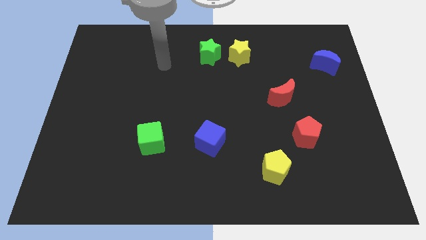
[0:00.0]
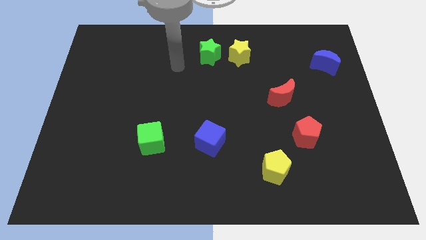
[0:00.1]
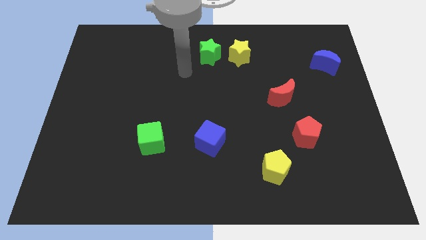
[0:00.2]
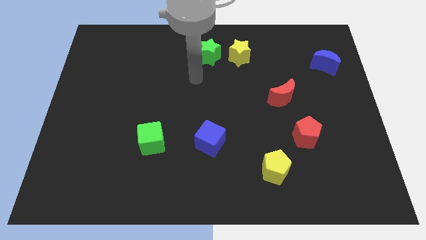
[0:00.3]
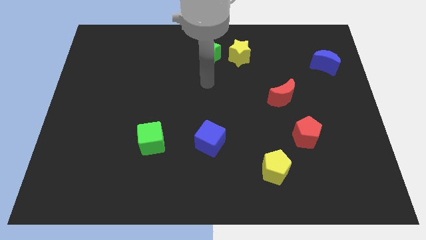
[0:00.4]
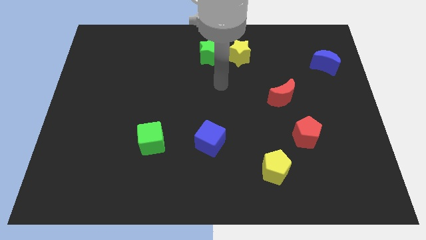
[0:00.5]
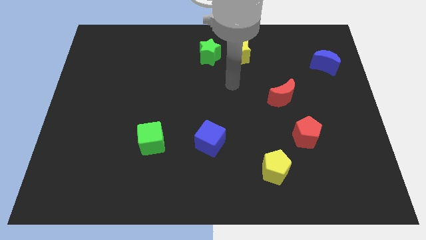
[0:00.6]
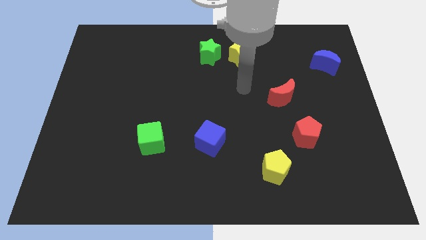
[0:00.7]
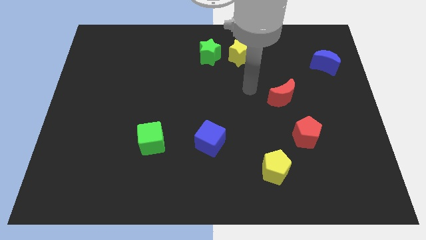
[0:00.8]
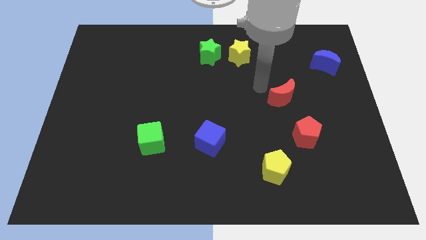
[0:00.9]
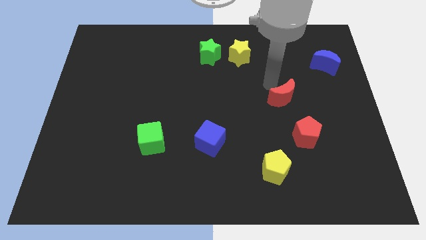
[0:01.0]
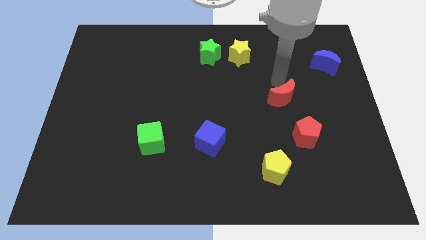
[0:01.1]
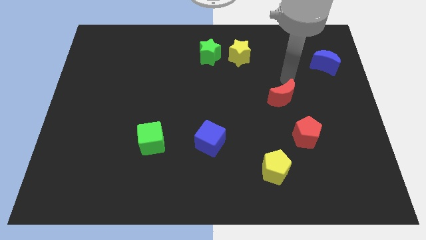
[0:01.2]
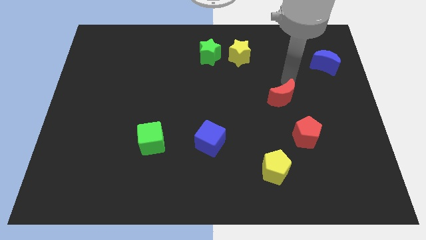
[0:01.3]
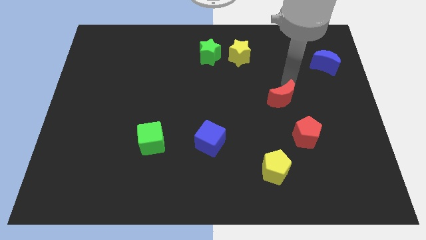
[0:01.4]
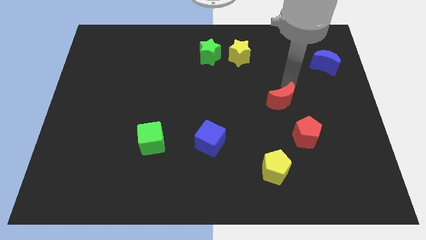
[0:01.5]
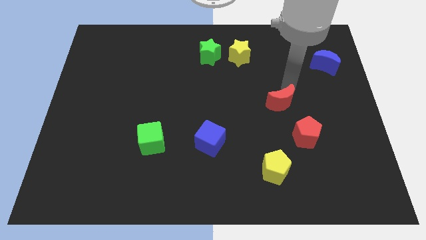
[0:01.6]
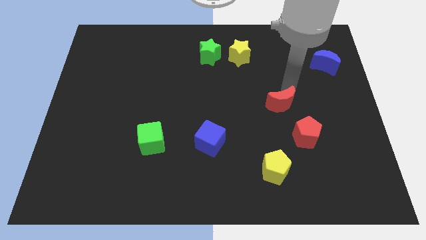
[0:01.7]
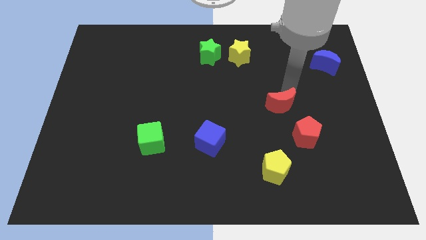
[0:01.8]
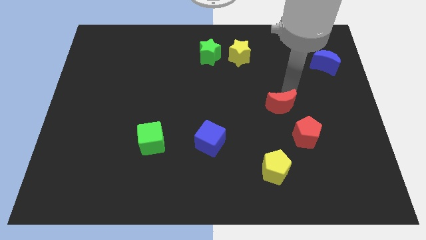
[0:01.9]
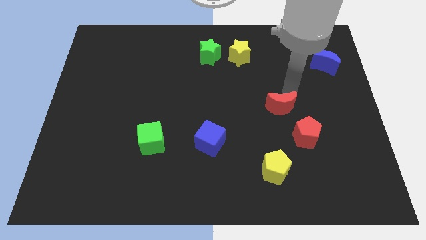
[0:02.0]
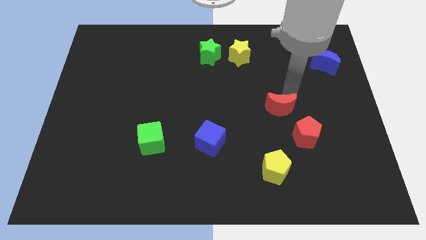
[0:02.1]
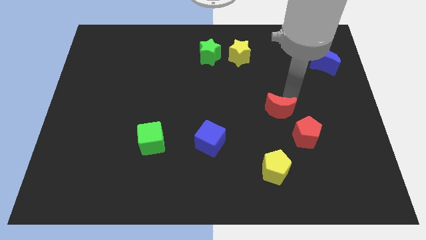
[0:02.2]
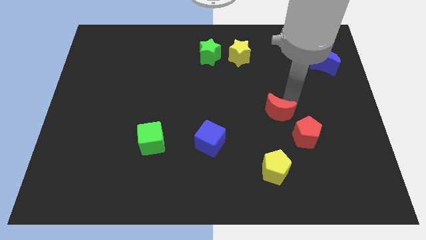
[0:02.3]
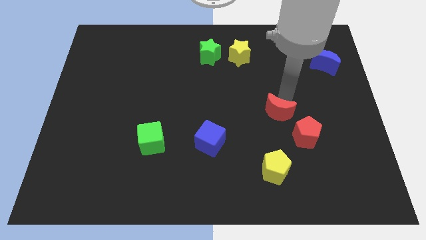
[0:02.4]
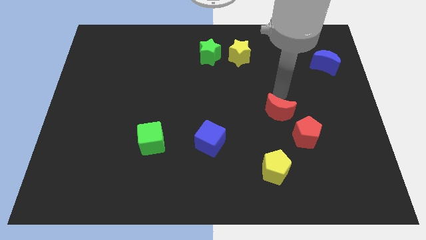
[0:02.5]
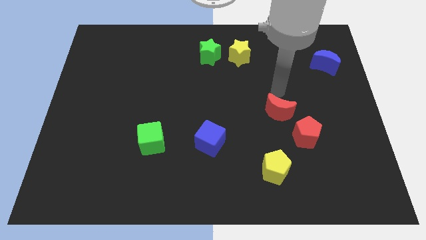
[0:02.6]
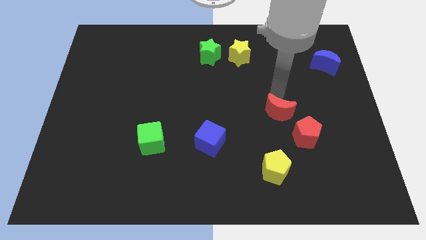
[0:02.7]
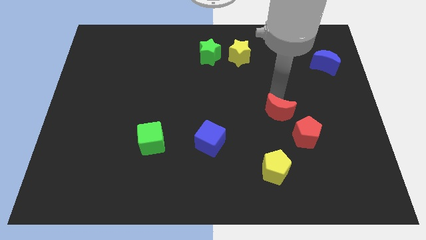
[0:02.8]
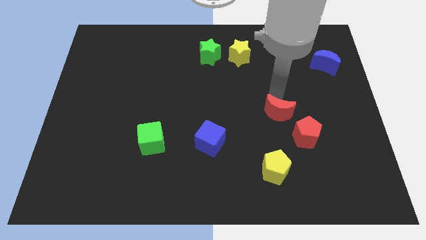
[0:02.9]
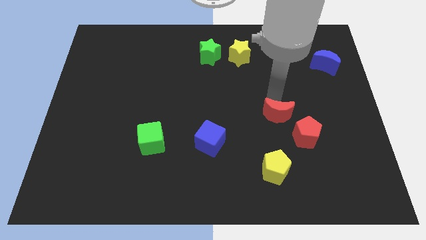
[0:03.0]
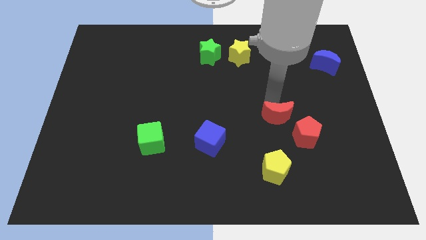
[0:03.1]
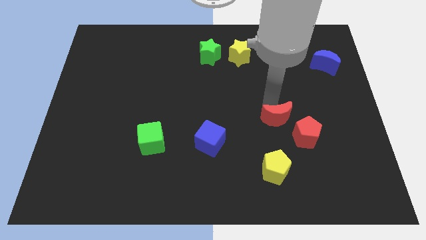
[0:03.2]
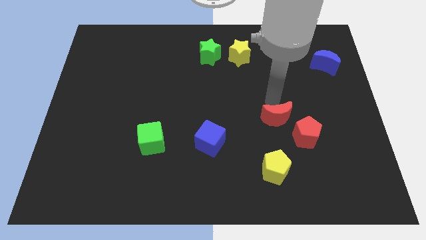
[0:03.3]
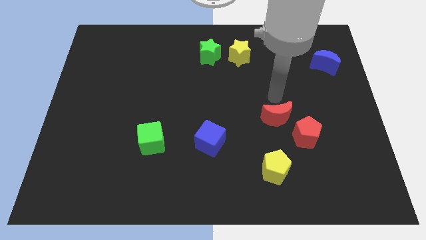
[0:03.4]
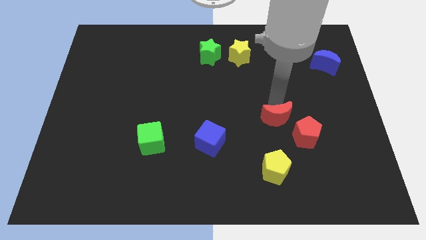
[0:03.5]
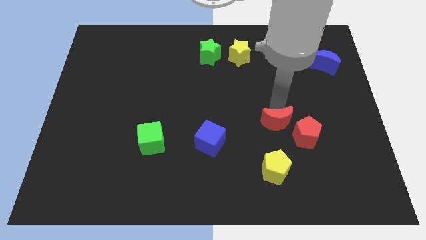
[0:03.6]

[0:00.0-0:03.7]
move the red moon downwards a little

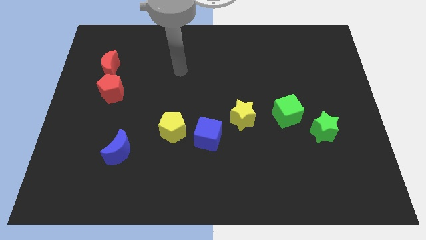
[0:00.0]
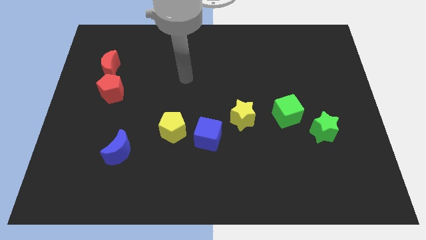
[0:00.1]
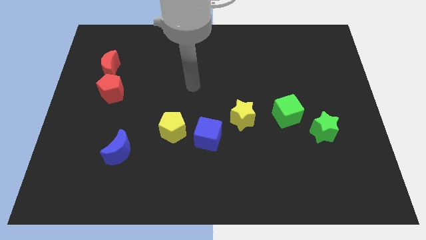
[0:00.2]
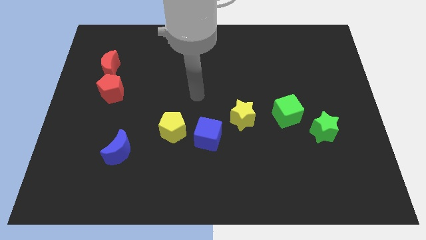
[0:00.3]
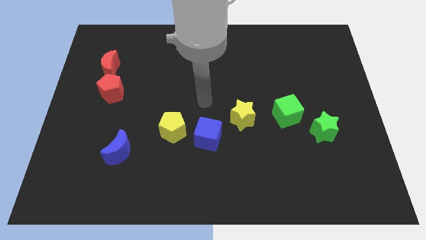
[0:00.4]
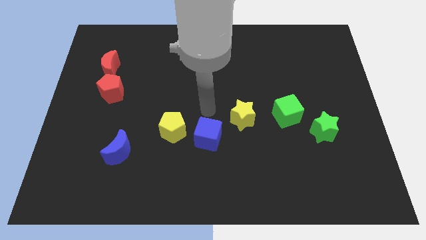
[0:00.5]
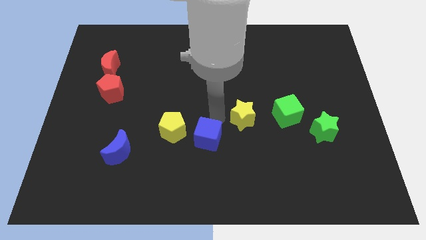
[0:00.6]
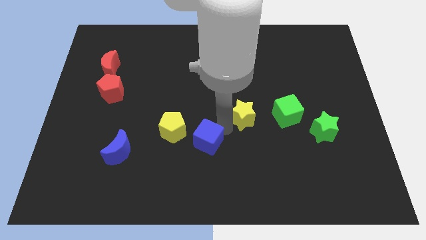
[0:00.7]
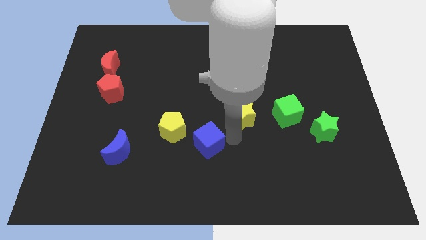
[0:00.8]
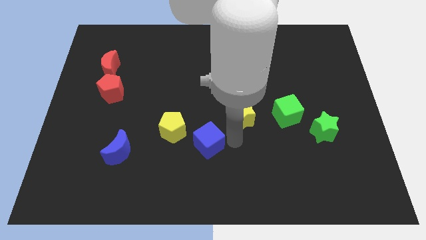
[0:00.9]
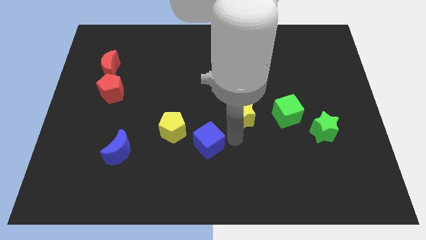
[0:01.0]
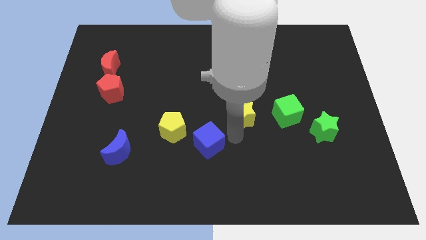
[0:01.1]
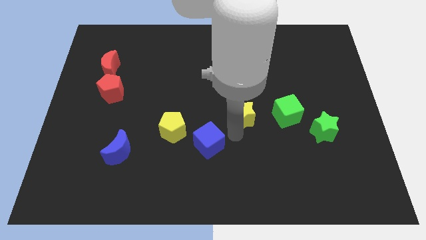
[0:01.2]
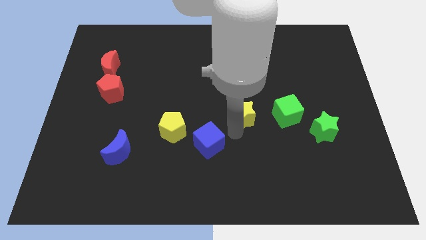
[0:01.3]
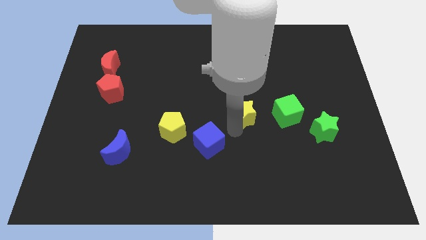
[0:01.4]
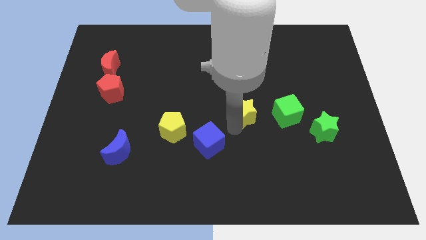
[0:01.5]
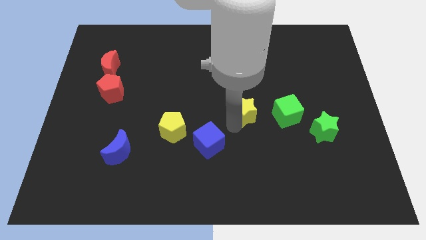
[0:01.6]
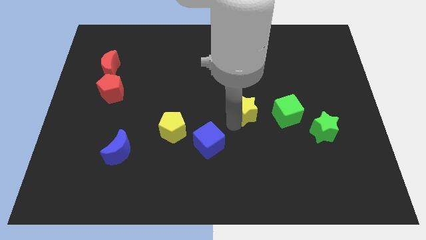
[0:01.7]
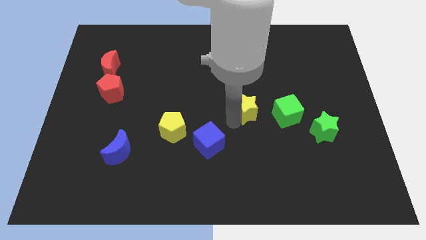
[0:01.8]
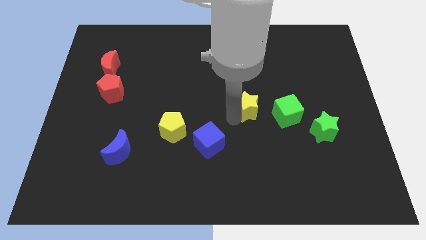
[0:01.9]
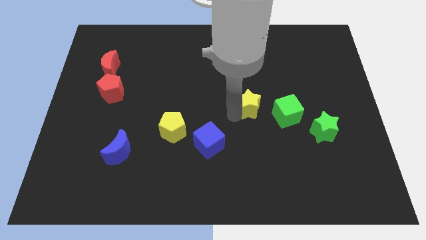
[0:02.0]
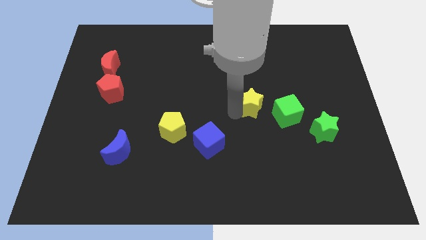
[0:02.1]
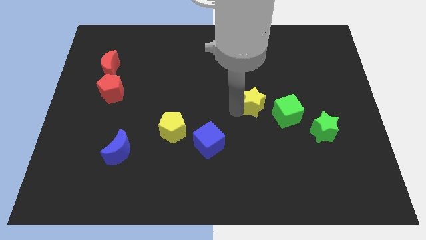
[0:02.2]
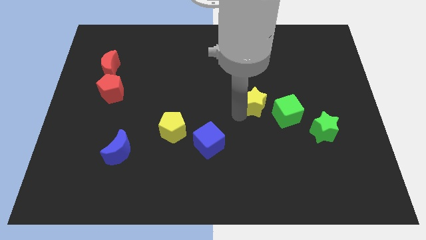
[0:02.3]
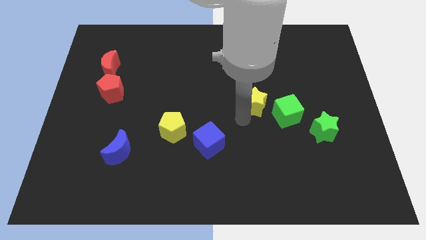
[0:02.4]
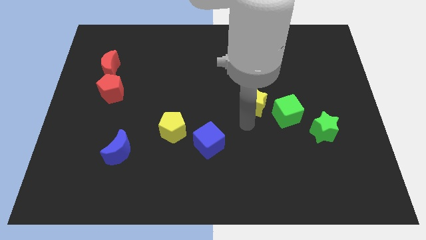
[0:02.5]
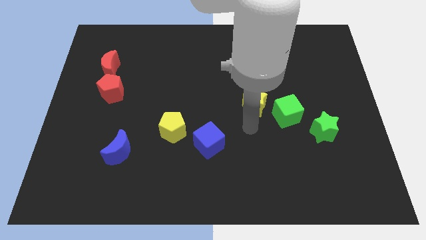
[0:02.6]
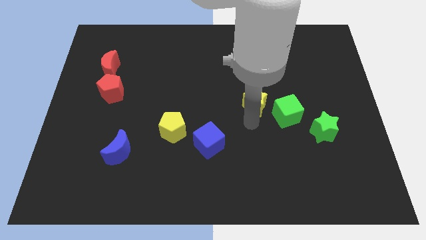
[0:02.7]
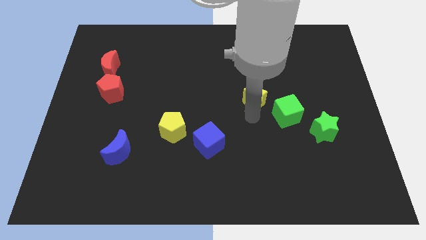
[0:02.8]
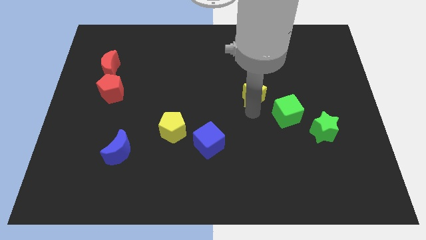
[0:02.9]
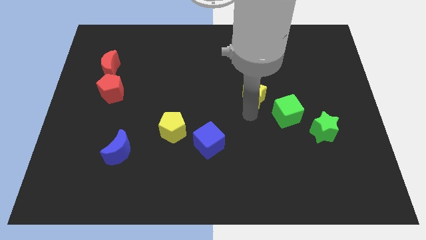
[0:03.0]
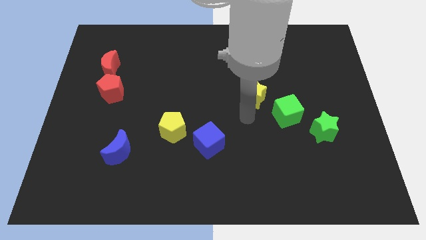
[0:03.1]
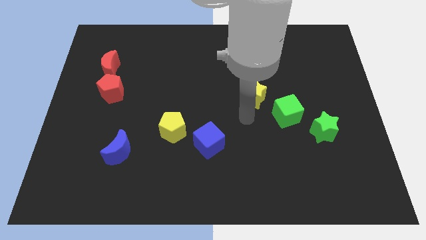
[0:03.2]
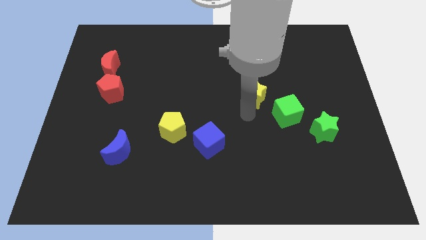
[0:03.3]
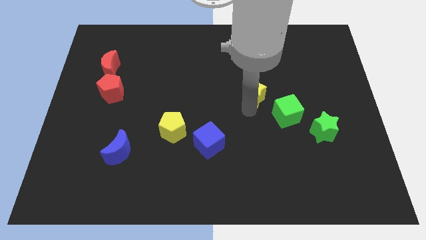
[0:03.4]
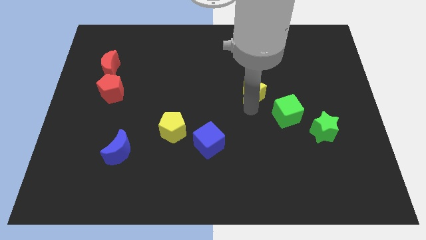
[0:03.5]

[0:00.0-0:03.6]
move the yellow star upwards and then to the right a little

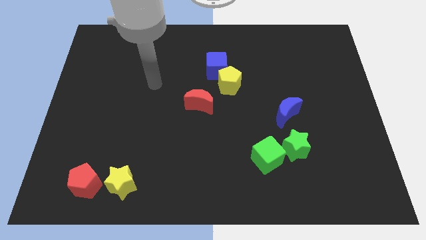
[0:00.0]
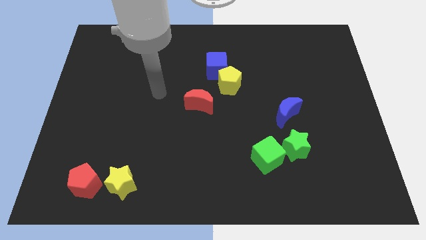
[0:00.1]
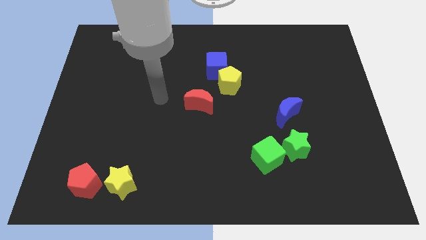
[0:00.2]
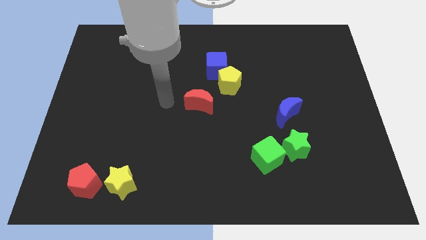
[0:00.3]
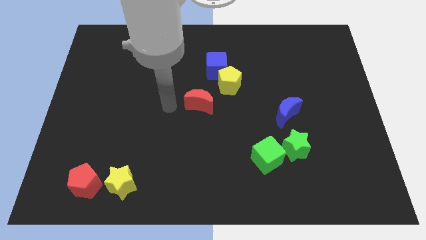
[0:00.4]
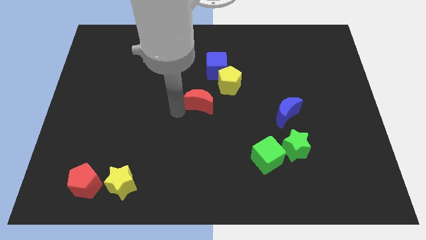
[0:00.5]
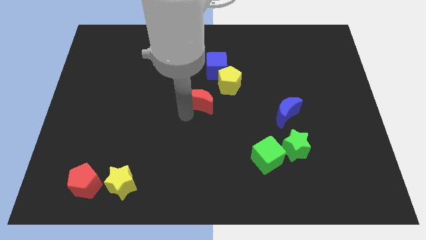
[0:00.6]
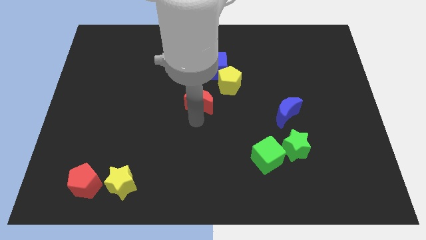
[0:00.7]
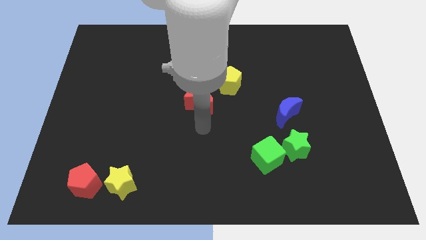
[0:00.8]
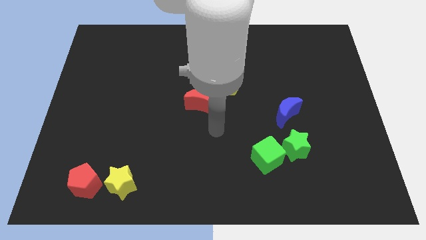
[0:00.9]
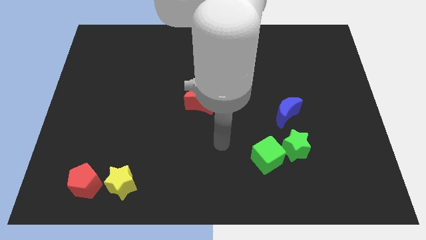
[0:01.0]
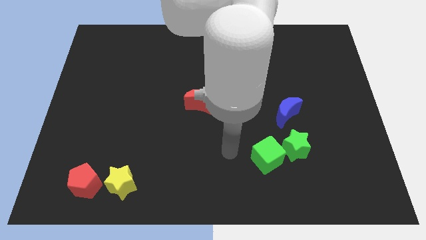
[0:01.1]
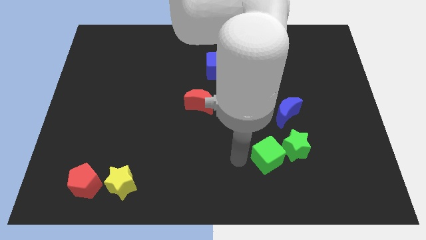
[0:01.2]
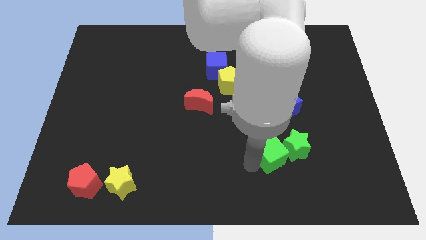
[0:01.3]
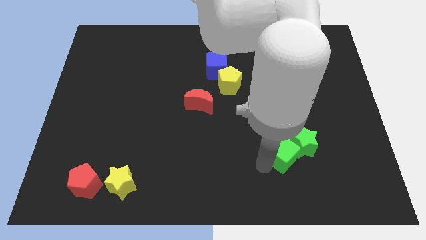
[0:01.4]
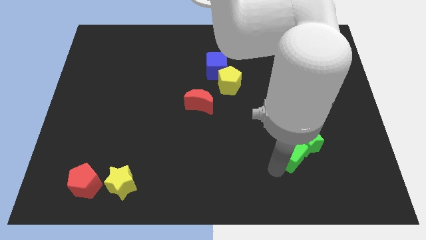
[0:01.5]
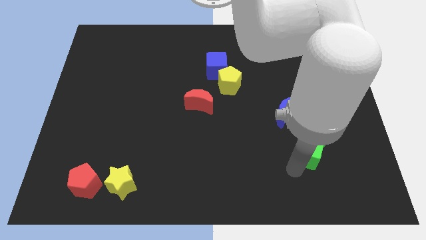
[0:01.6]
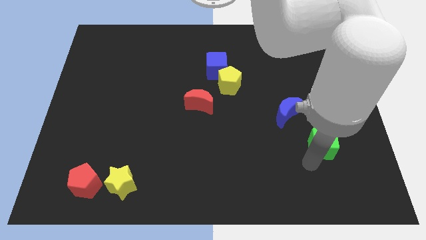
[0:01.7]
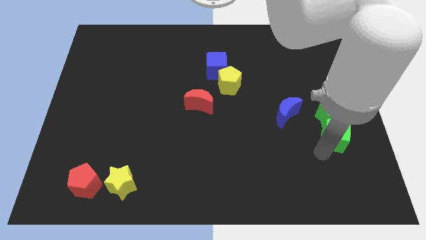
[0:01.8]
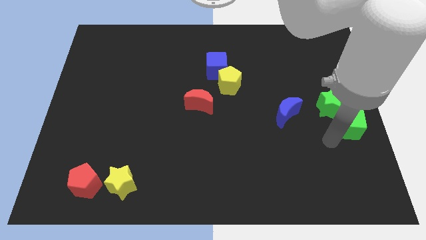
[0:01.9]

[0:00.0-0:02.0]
slightly slide the green star up
